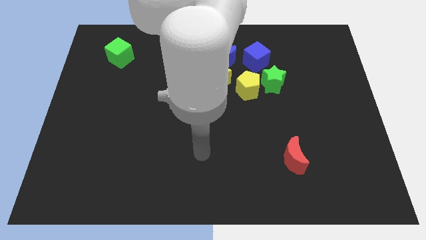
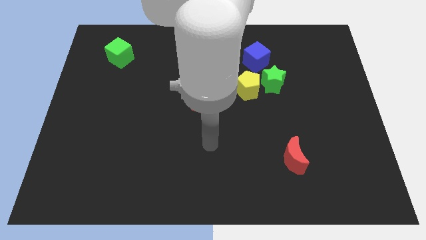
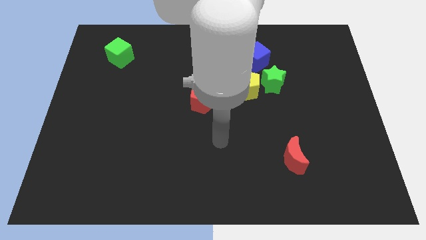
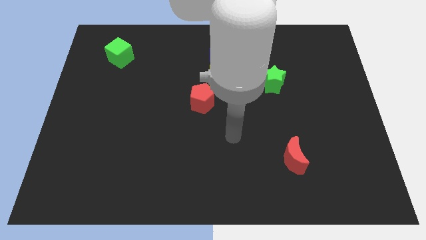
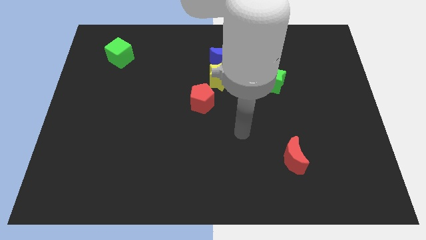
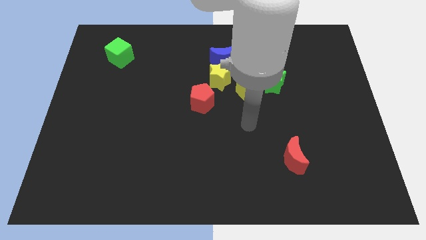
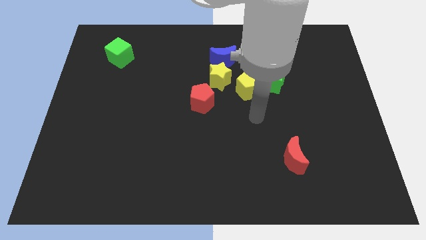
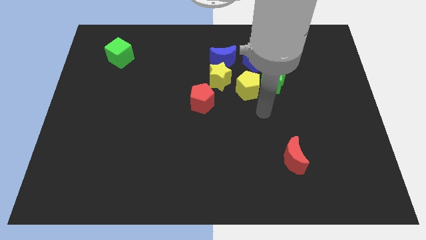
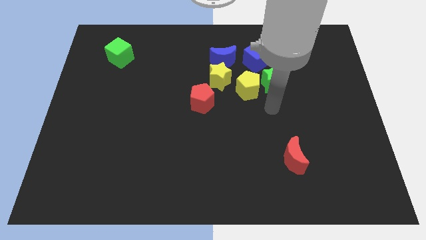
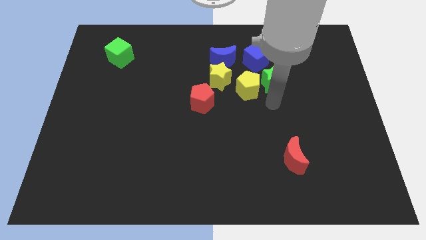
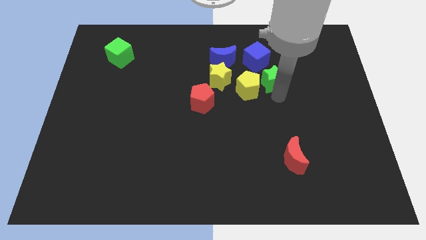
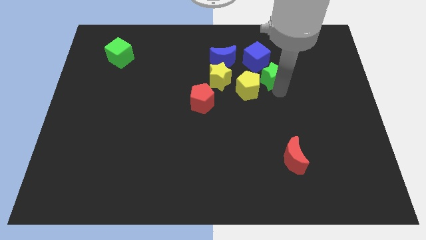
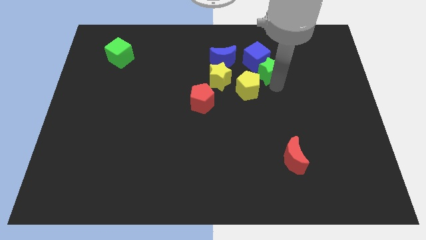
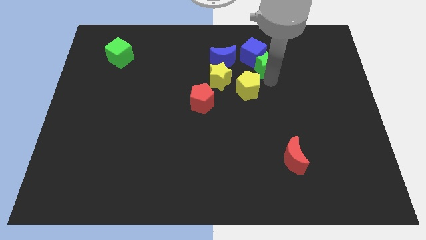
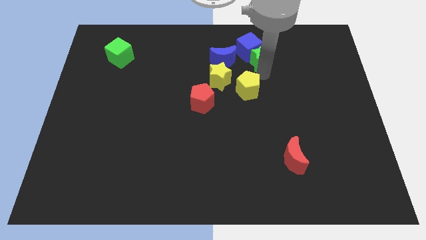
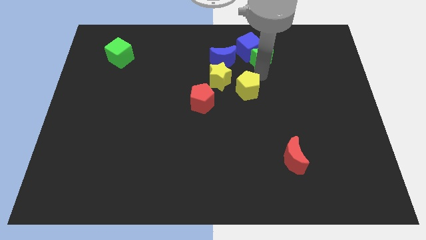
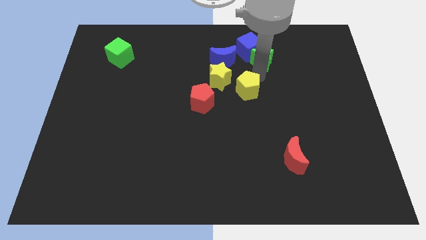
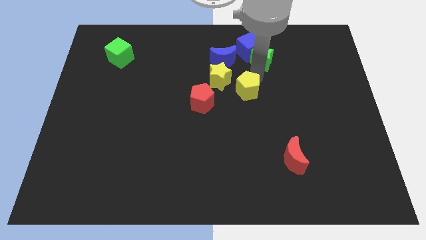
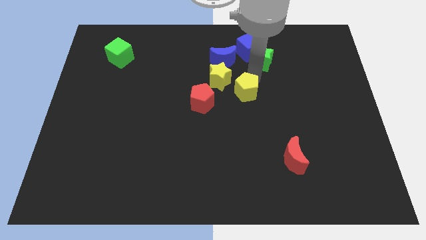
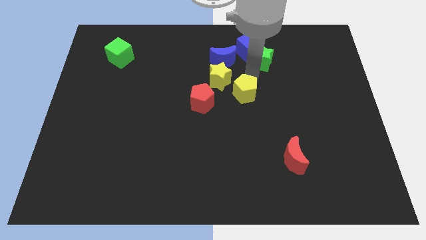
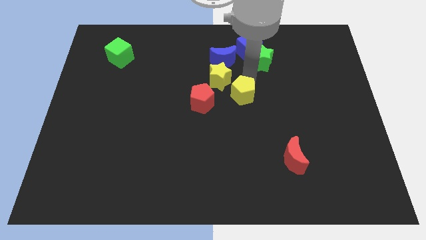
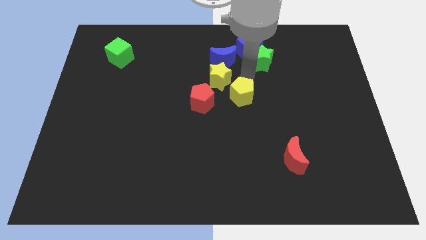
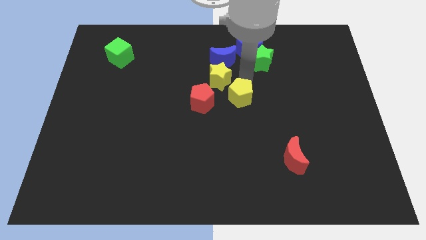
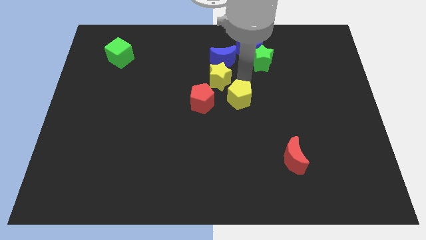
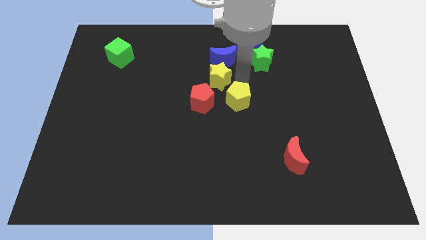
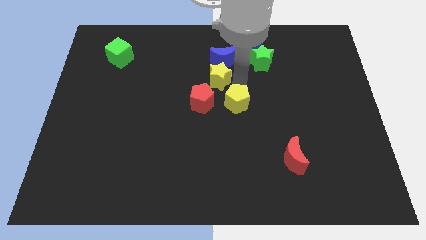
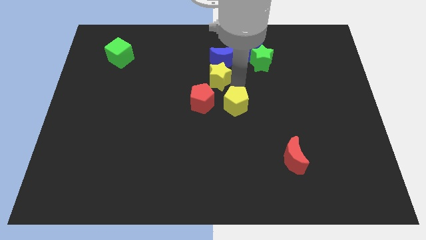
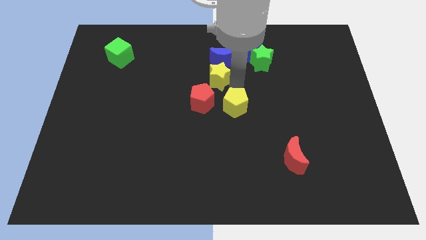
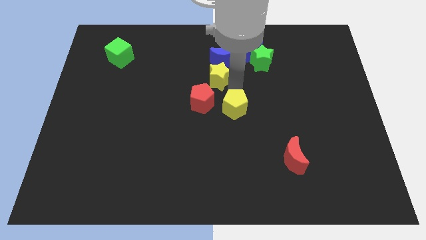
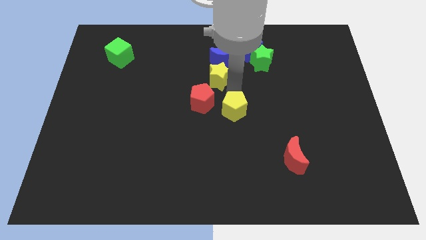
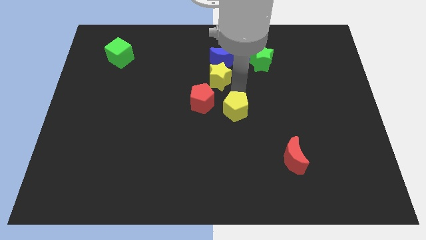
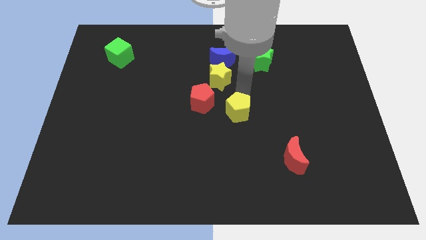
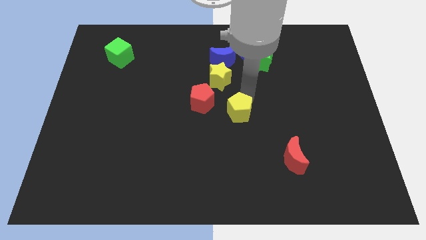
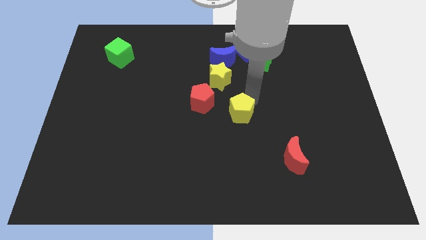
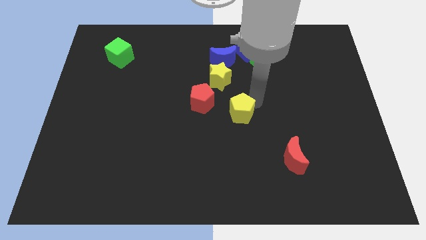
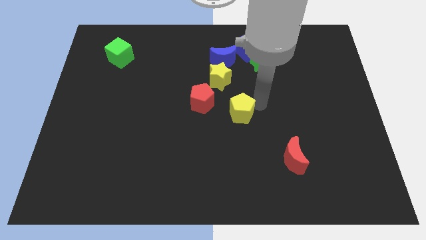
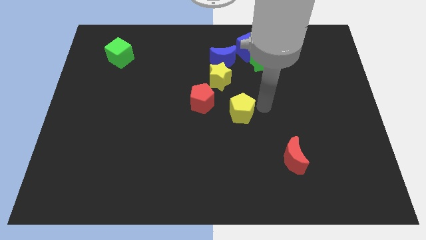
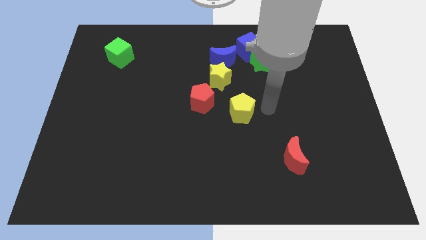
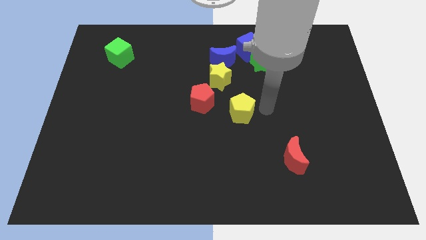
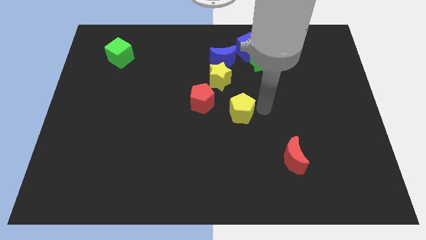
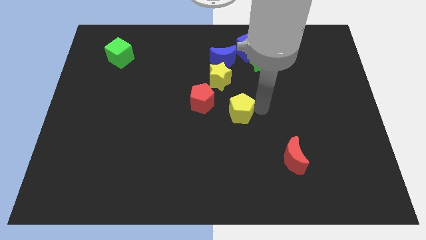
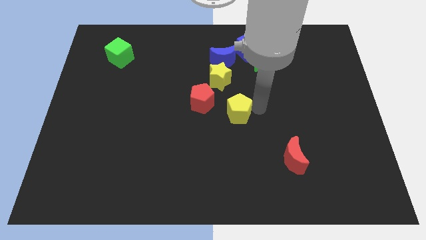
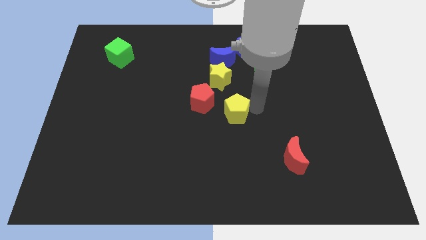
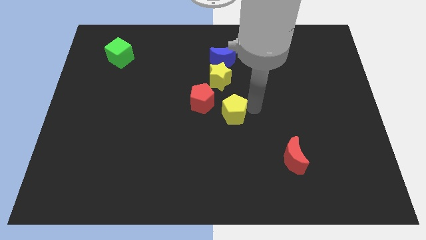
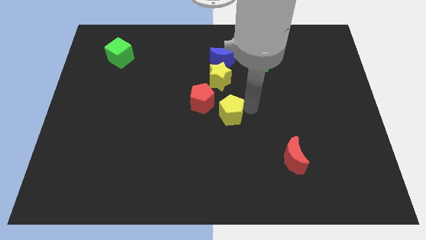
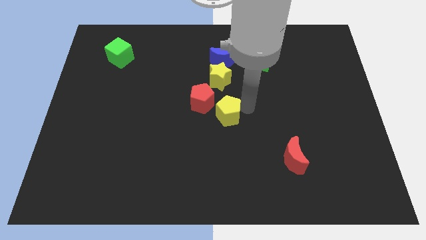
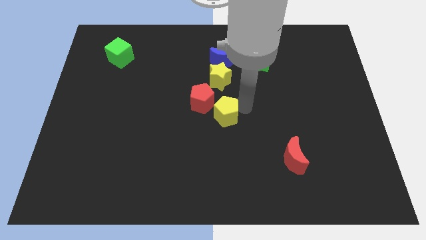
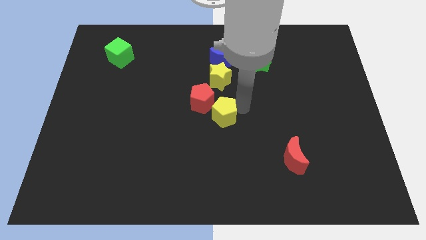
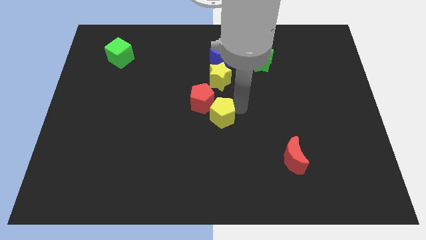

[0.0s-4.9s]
put the yellow pentagon below the red pentagon

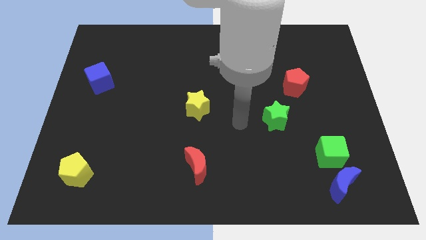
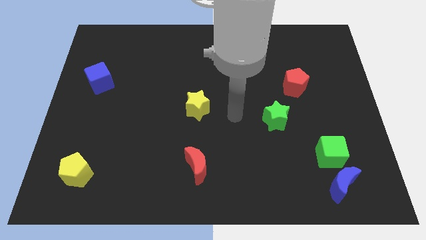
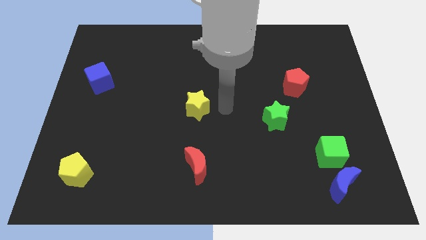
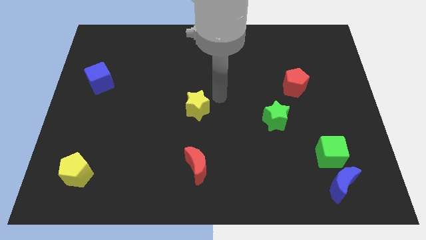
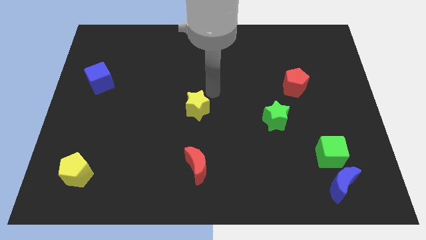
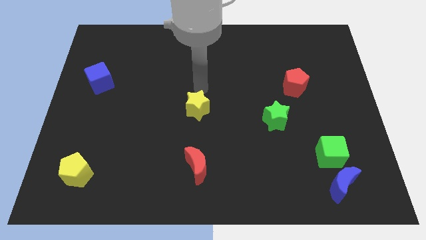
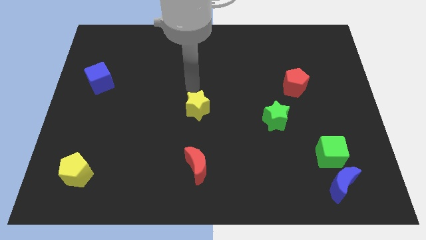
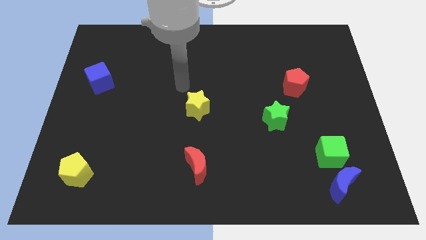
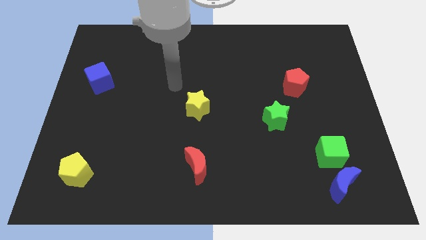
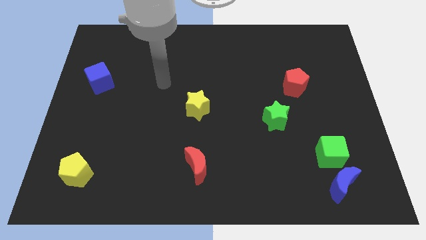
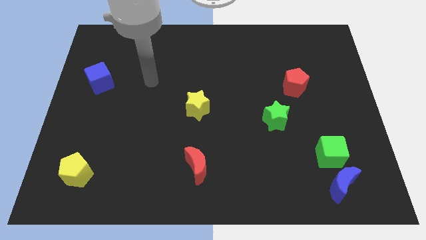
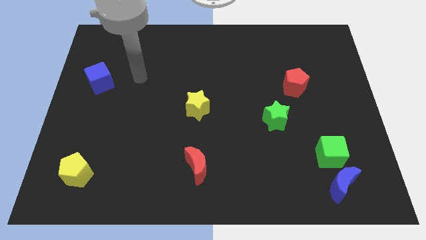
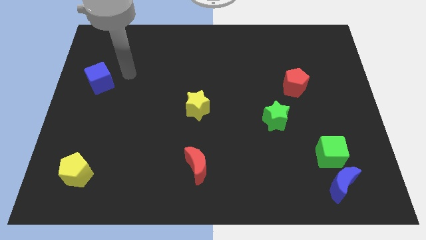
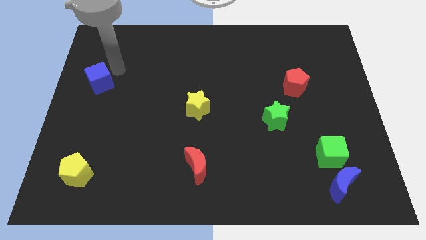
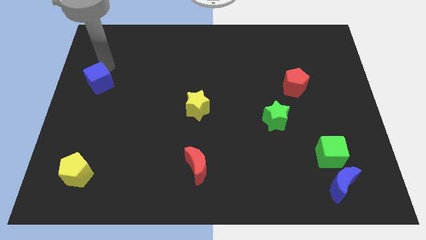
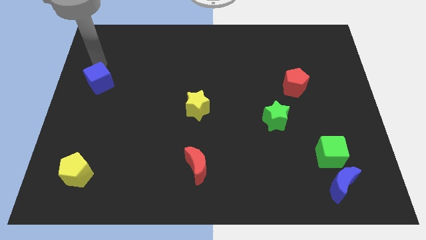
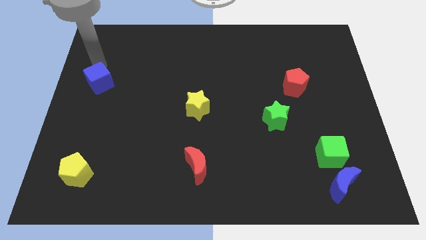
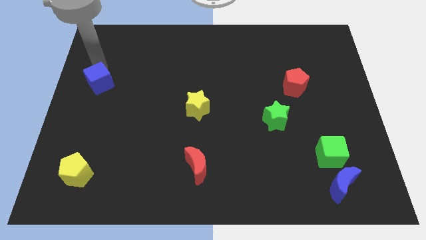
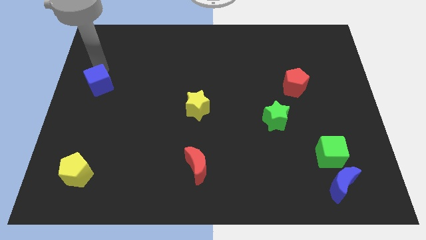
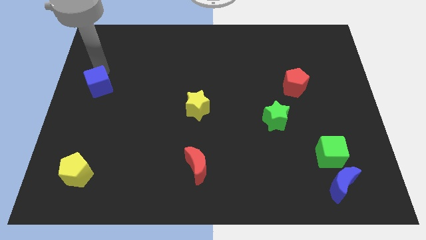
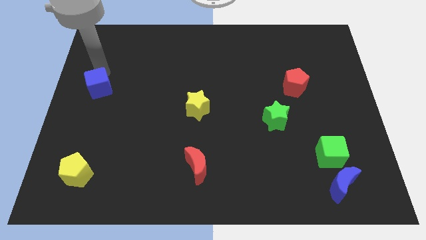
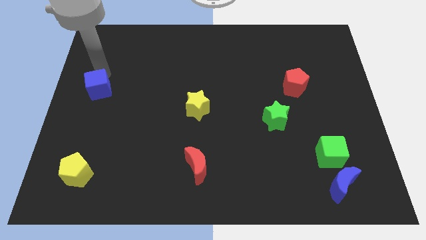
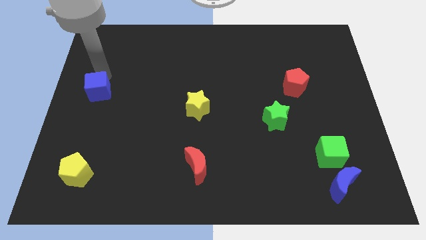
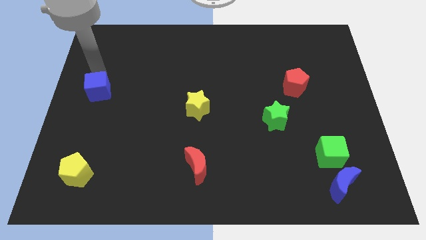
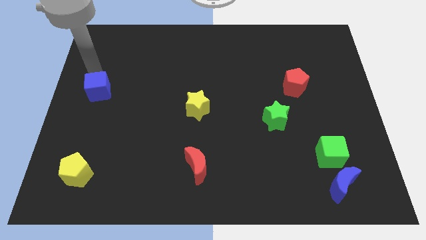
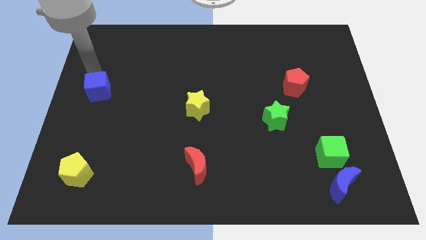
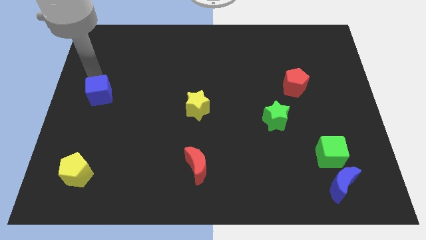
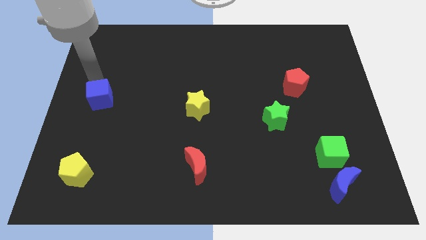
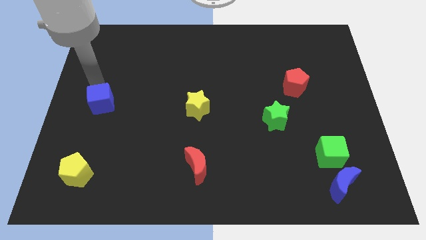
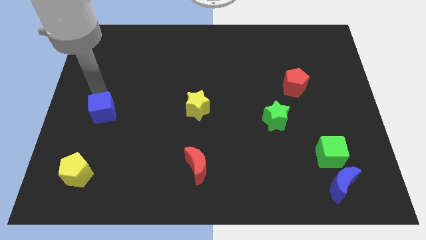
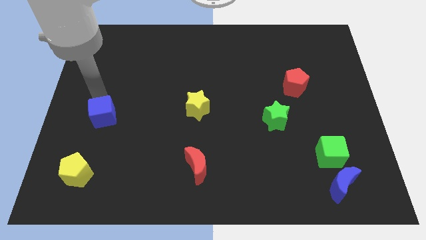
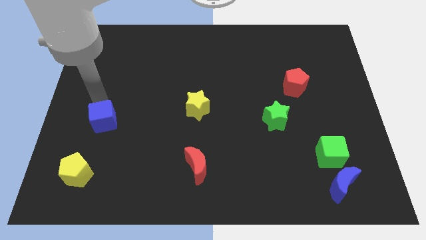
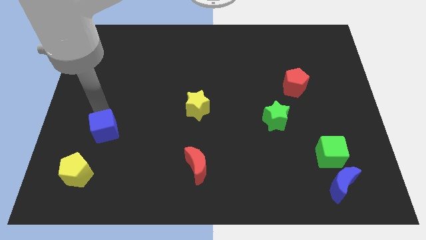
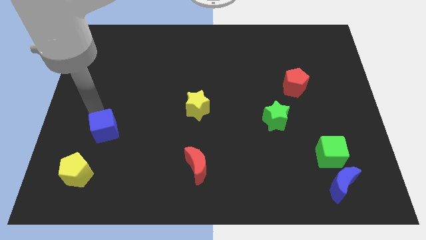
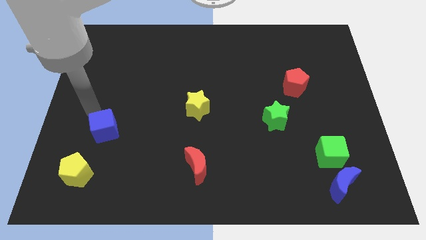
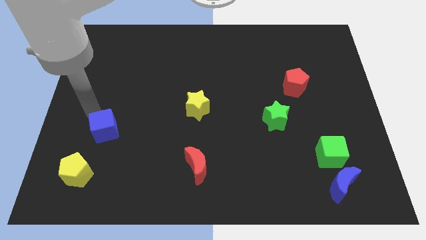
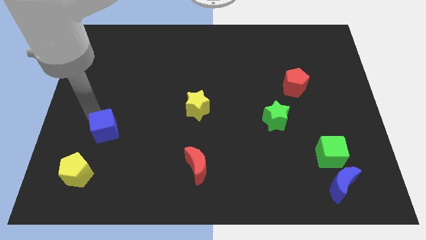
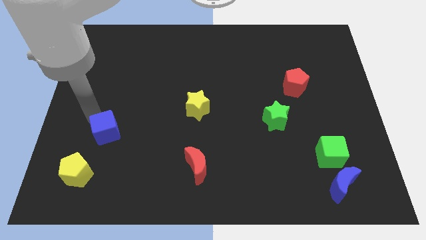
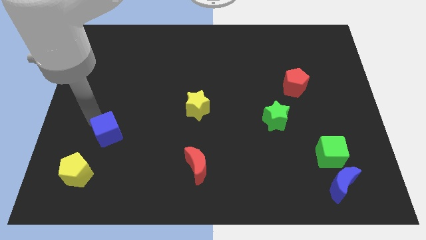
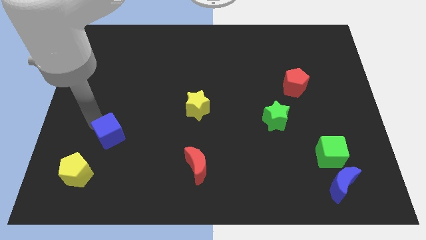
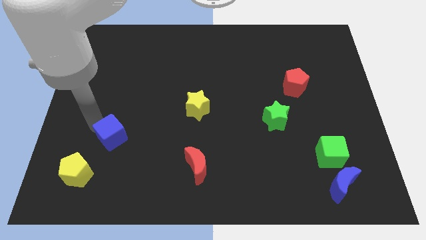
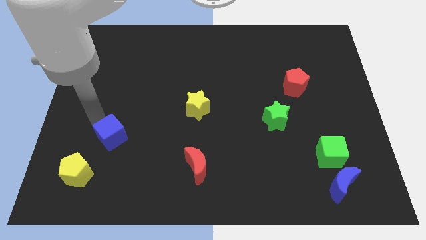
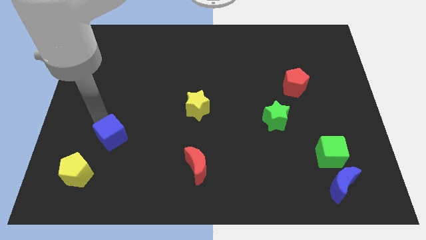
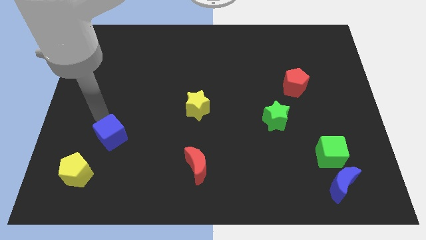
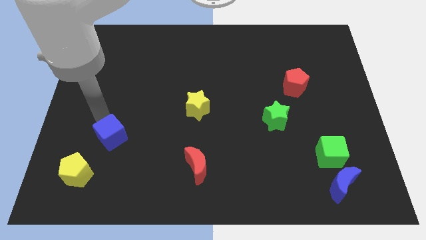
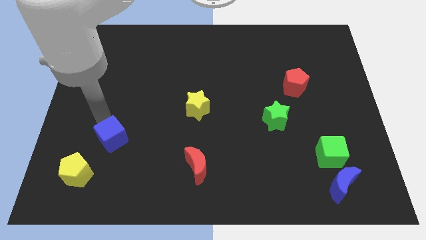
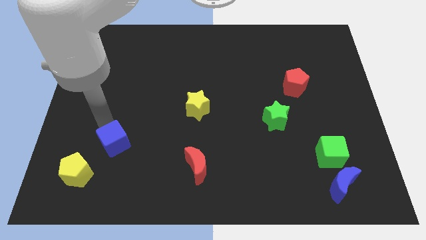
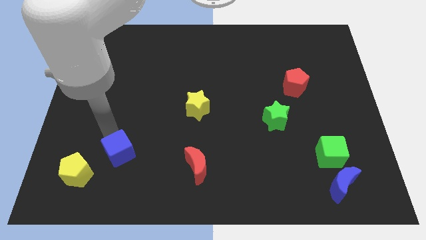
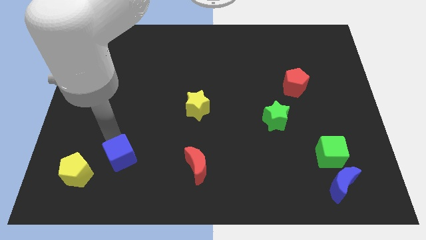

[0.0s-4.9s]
move the blue cube just right of the yellow pentagon
